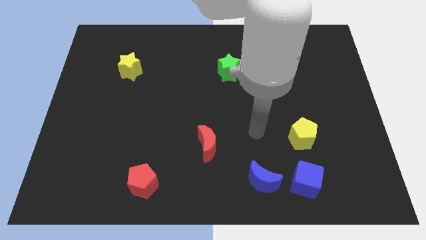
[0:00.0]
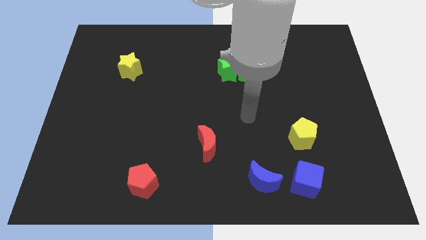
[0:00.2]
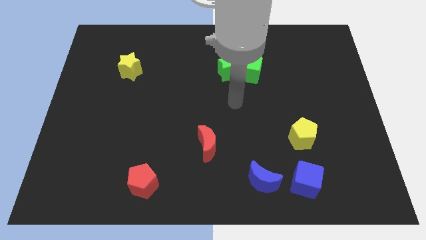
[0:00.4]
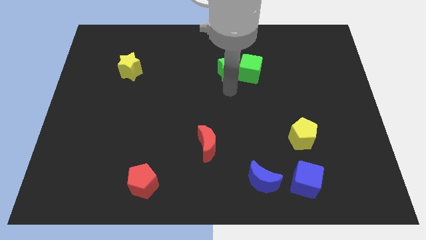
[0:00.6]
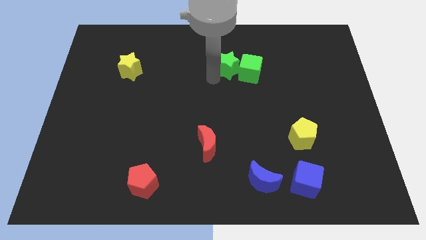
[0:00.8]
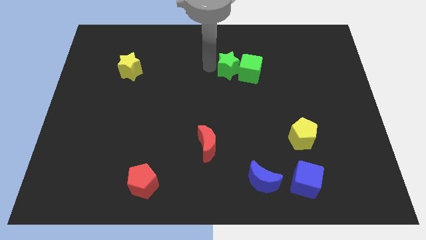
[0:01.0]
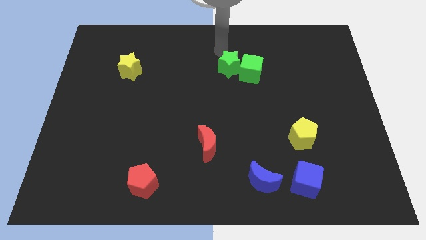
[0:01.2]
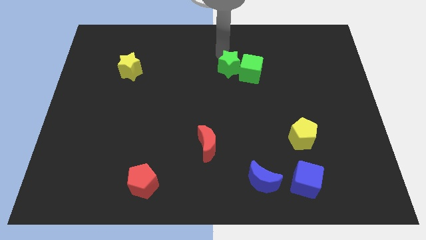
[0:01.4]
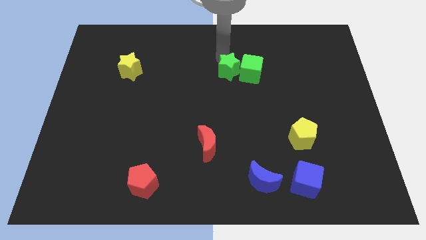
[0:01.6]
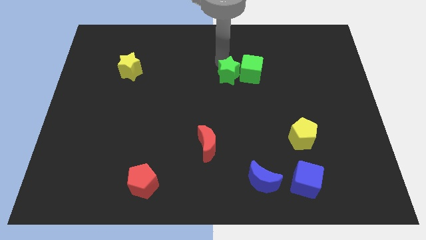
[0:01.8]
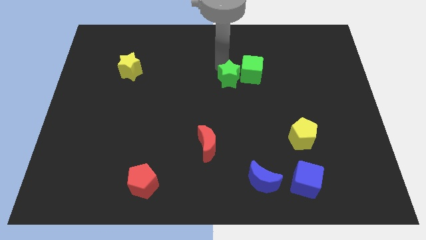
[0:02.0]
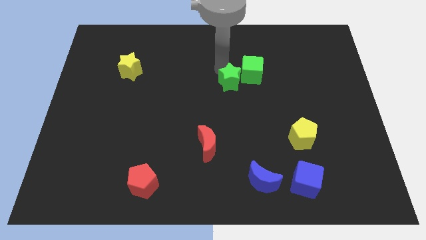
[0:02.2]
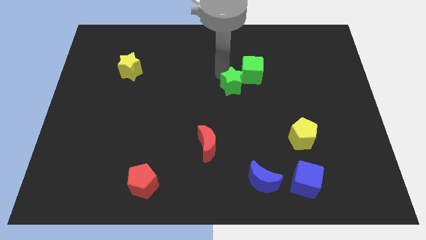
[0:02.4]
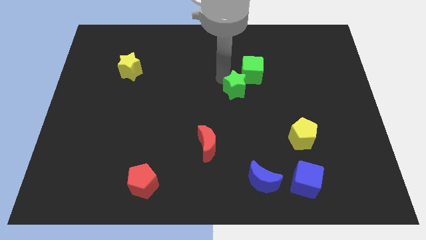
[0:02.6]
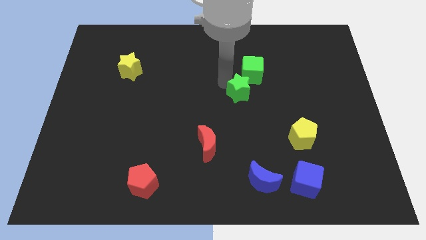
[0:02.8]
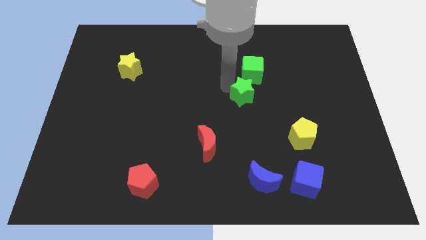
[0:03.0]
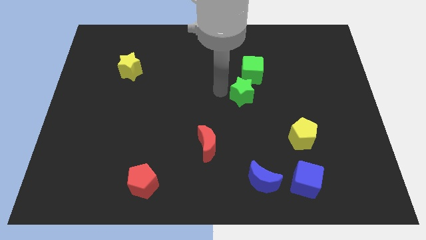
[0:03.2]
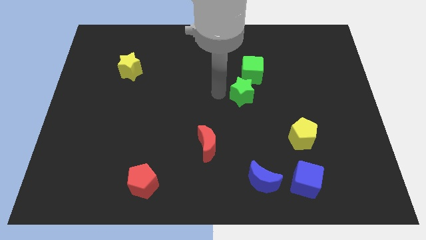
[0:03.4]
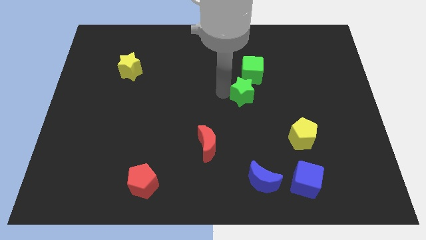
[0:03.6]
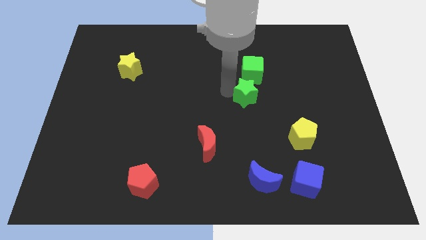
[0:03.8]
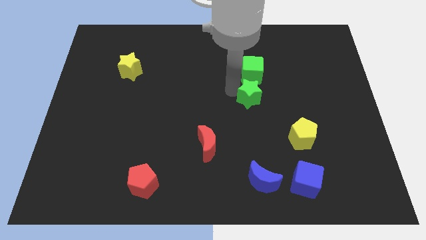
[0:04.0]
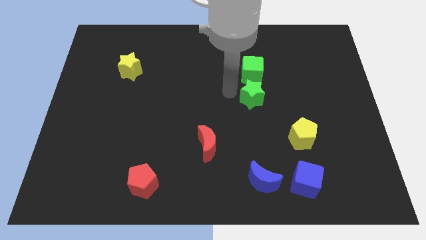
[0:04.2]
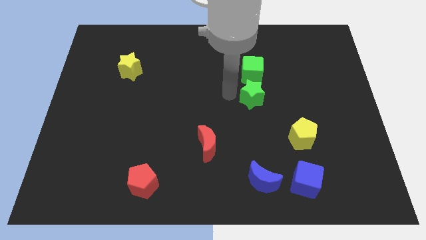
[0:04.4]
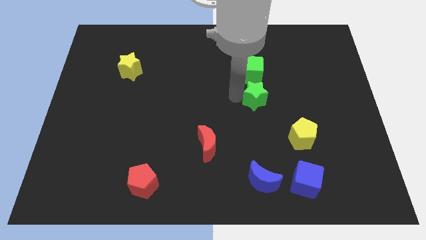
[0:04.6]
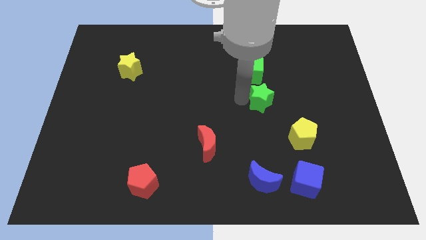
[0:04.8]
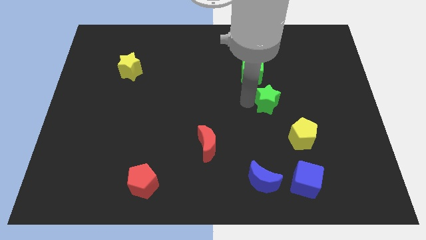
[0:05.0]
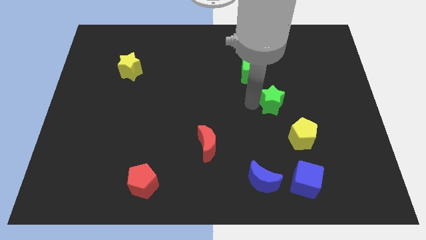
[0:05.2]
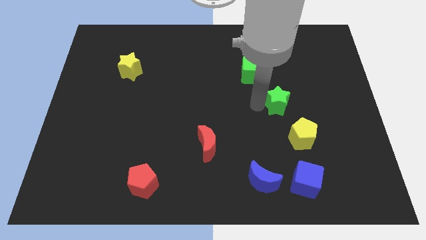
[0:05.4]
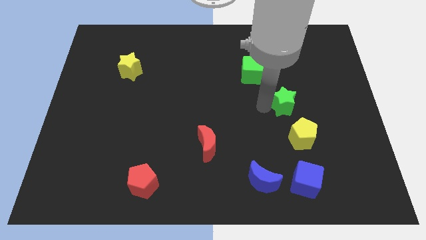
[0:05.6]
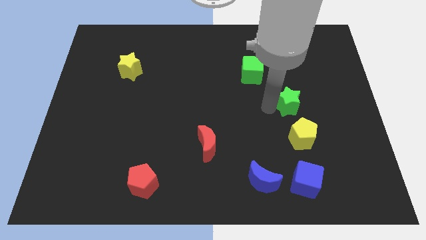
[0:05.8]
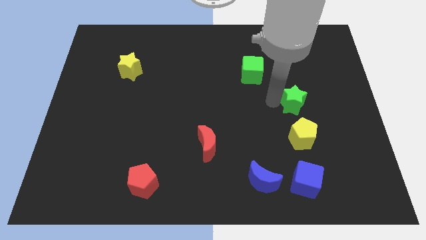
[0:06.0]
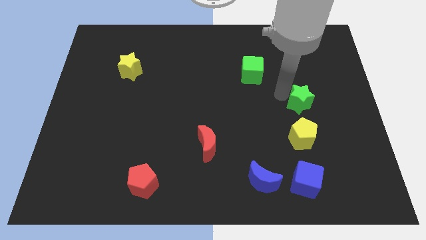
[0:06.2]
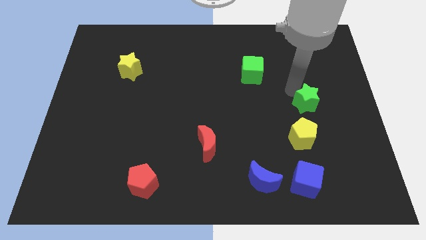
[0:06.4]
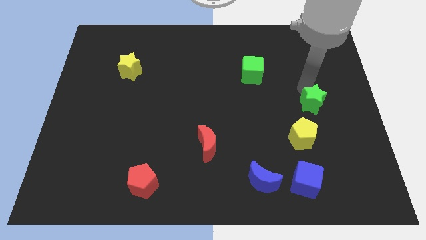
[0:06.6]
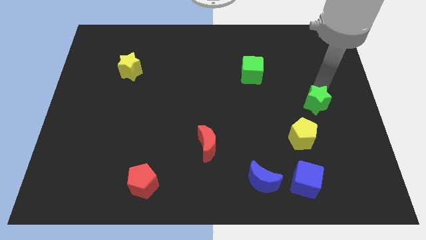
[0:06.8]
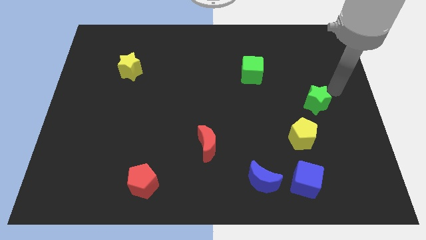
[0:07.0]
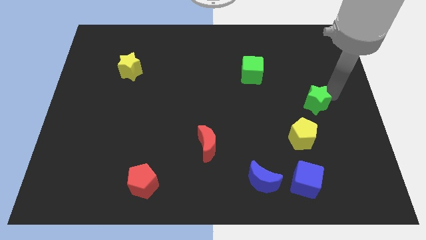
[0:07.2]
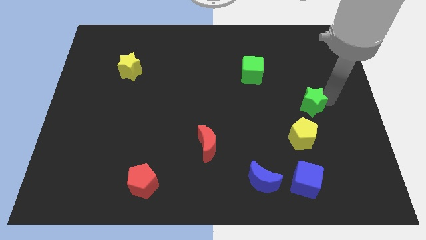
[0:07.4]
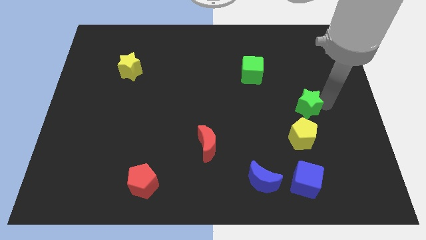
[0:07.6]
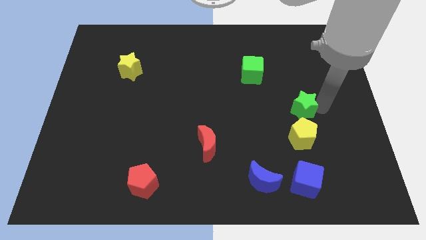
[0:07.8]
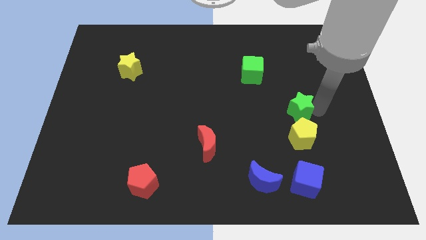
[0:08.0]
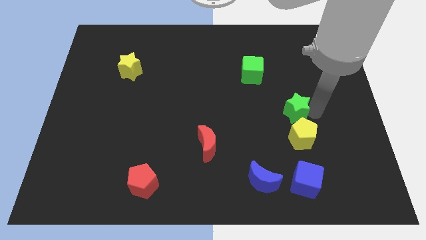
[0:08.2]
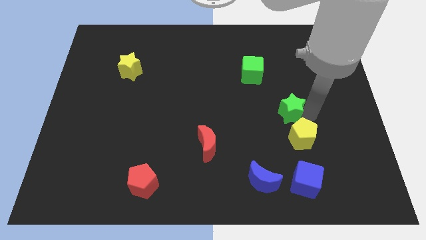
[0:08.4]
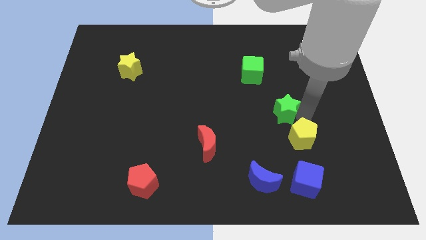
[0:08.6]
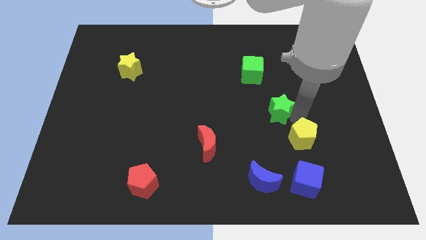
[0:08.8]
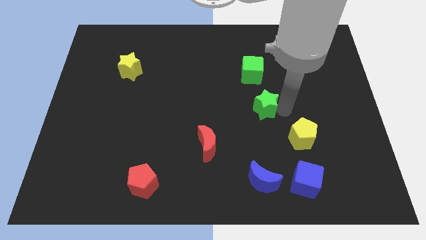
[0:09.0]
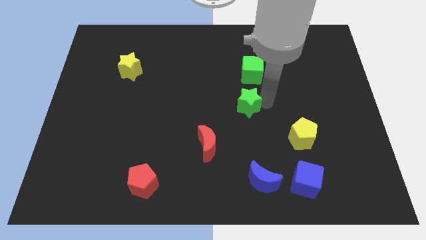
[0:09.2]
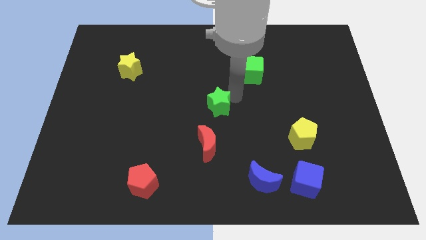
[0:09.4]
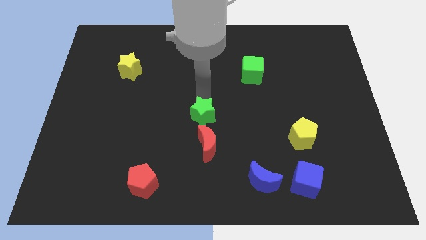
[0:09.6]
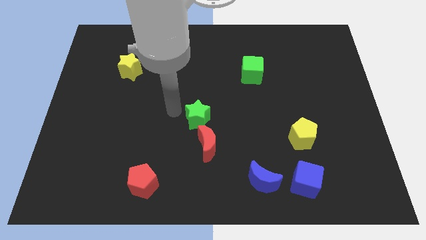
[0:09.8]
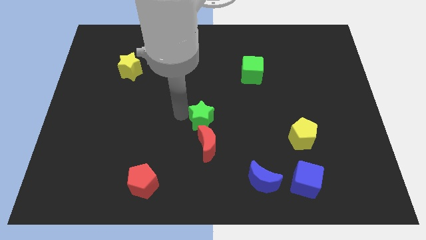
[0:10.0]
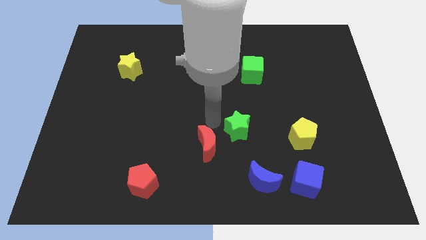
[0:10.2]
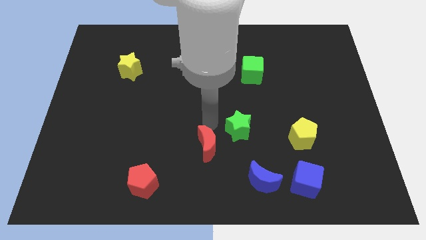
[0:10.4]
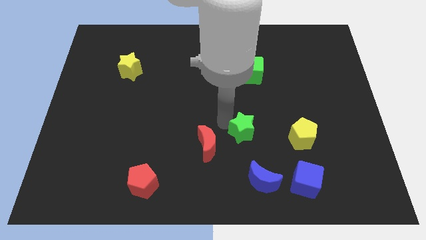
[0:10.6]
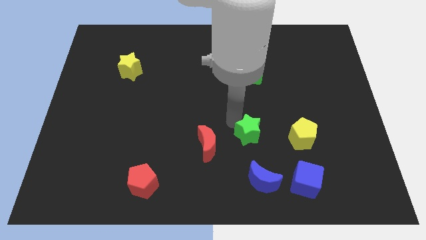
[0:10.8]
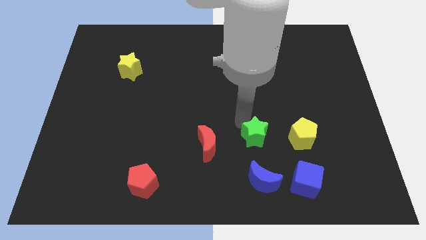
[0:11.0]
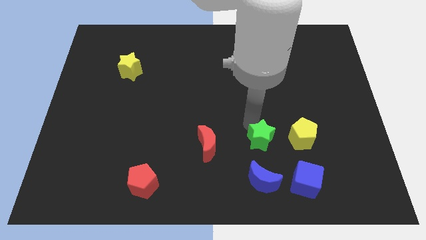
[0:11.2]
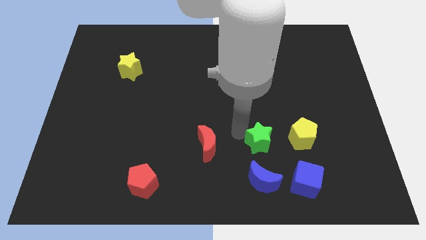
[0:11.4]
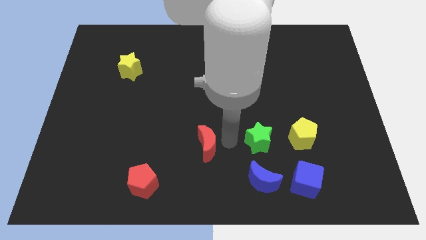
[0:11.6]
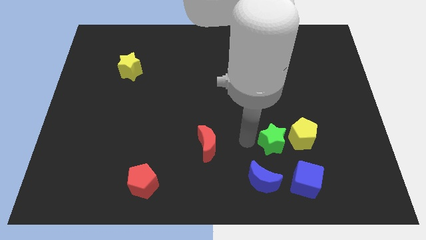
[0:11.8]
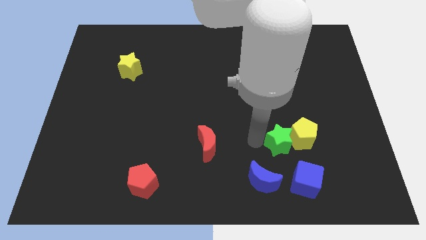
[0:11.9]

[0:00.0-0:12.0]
put the green star towards the yellow pentagon

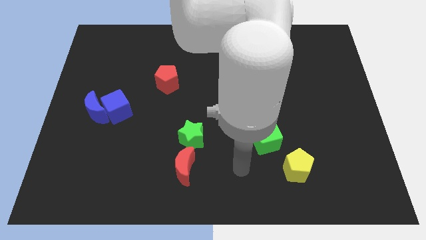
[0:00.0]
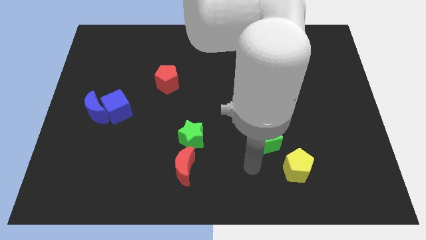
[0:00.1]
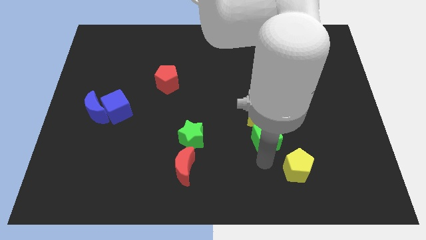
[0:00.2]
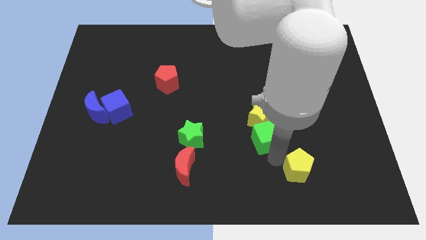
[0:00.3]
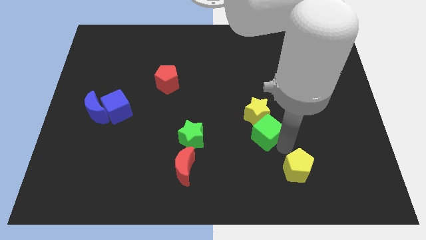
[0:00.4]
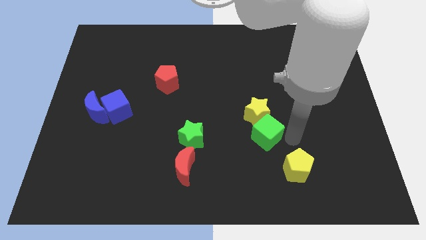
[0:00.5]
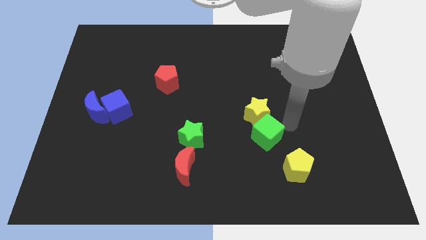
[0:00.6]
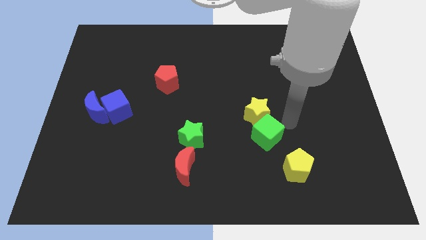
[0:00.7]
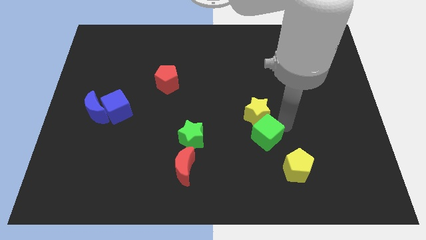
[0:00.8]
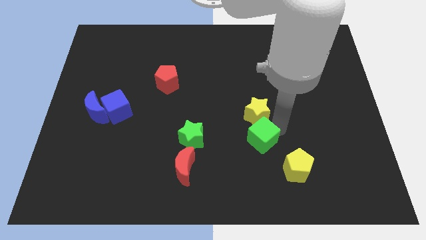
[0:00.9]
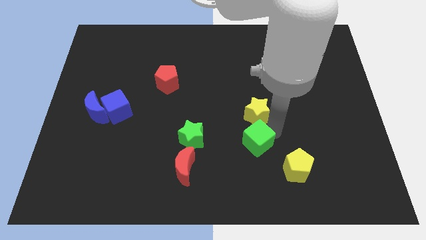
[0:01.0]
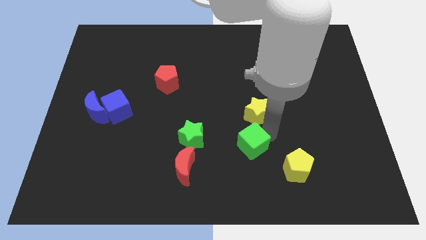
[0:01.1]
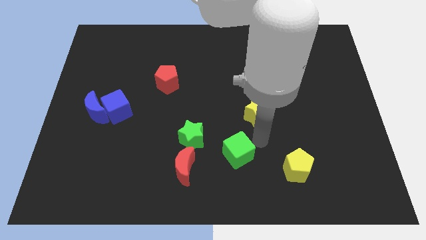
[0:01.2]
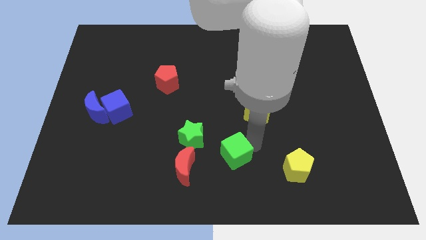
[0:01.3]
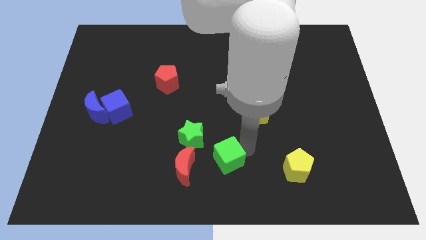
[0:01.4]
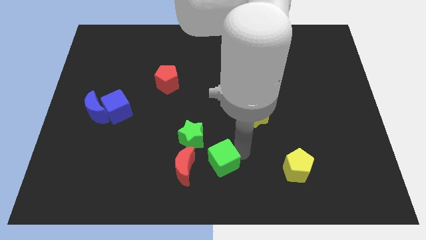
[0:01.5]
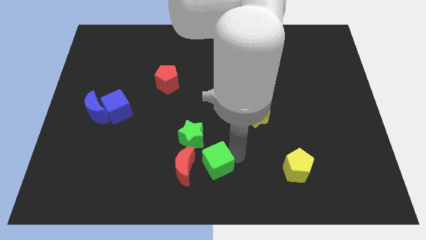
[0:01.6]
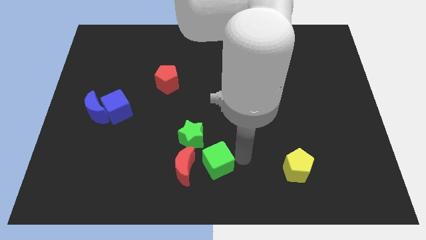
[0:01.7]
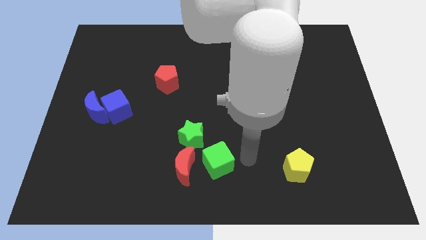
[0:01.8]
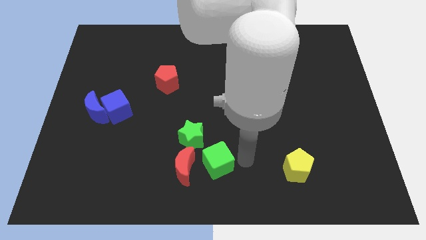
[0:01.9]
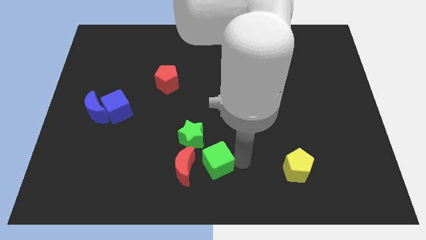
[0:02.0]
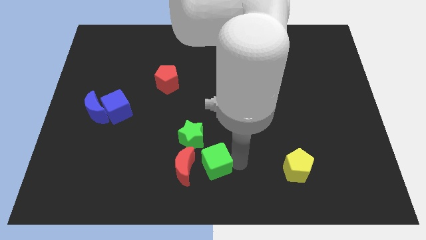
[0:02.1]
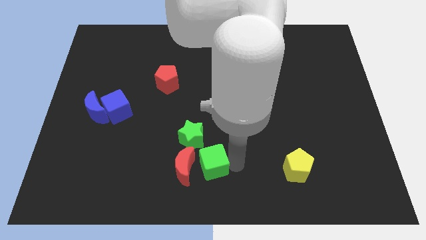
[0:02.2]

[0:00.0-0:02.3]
put the green cube to the red moon
